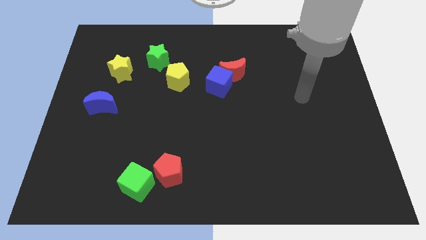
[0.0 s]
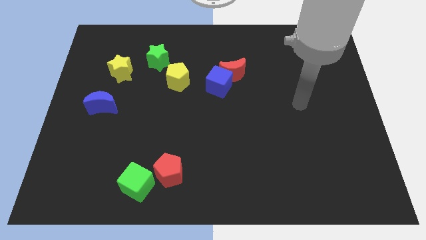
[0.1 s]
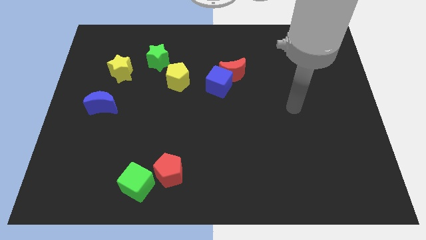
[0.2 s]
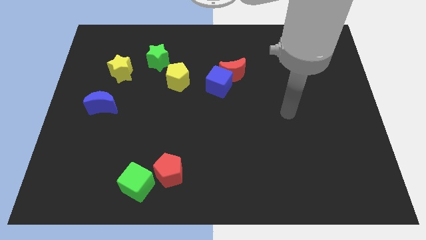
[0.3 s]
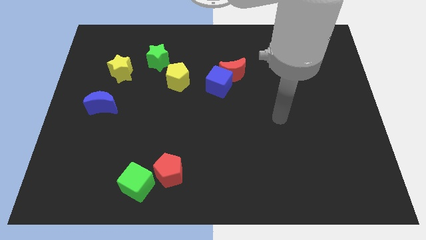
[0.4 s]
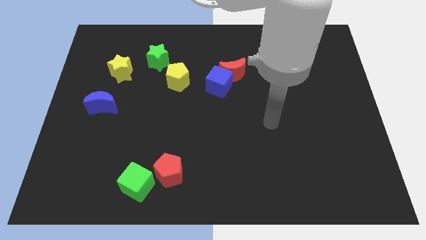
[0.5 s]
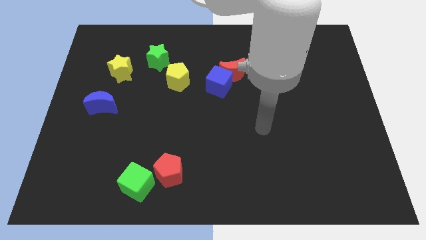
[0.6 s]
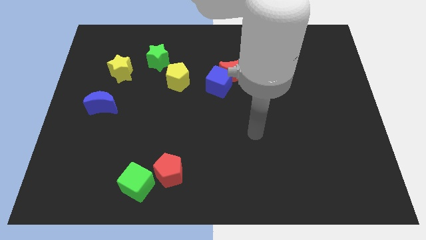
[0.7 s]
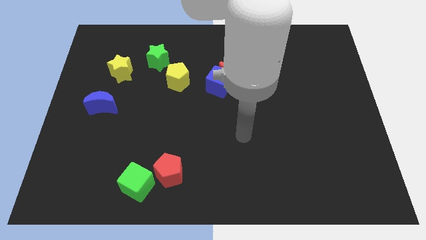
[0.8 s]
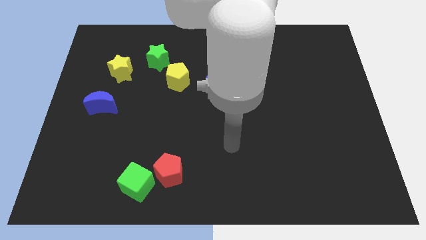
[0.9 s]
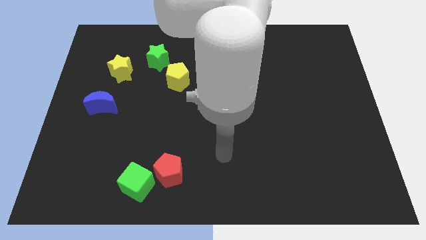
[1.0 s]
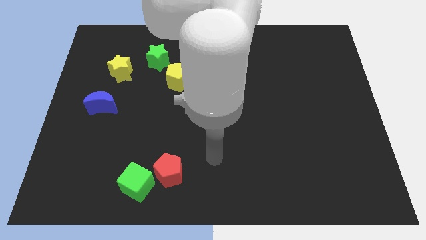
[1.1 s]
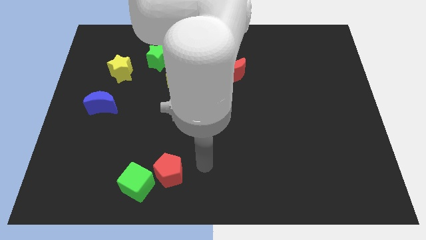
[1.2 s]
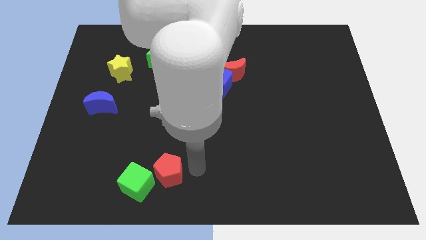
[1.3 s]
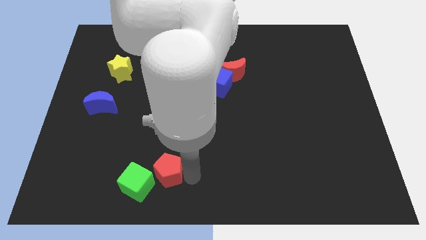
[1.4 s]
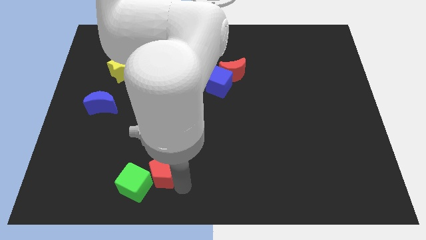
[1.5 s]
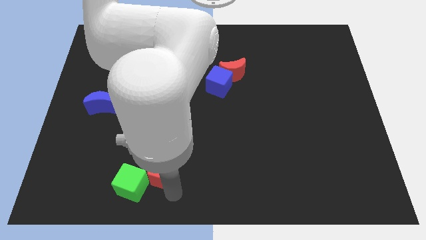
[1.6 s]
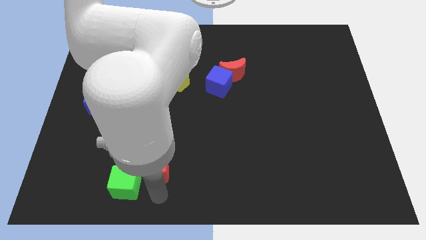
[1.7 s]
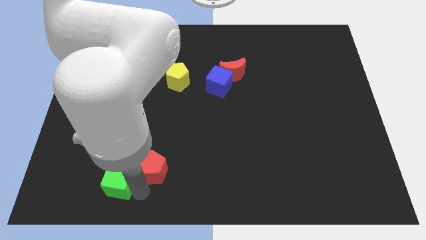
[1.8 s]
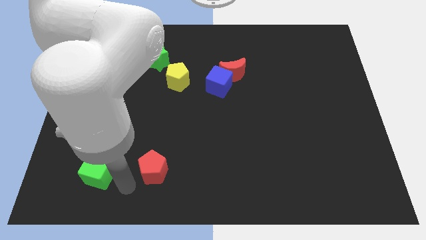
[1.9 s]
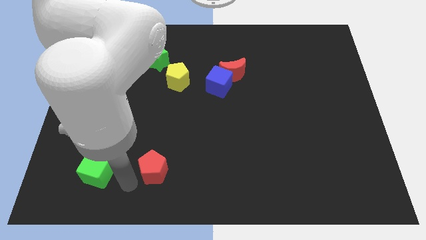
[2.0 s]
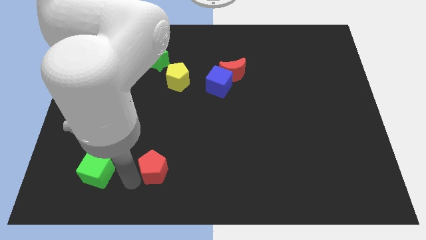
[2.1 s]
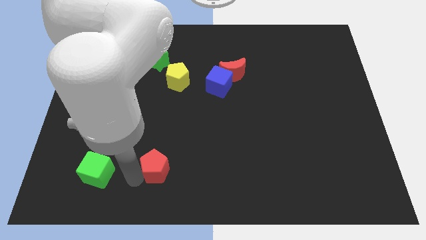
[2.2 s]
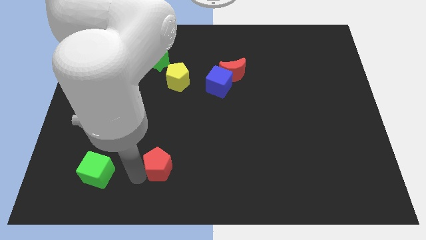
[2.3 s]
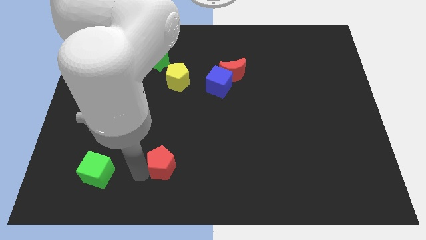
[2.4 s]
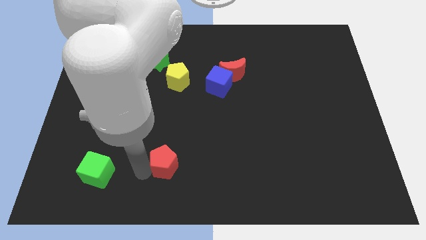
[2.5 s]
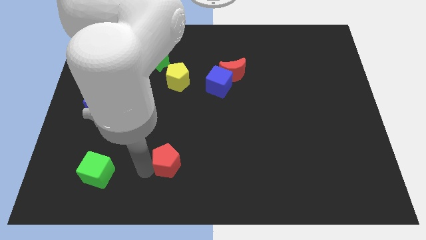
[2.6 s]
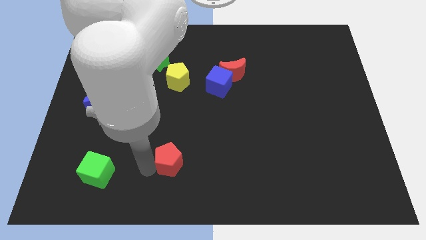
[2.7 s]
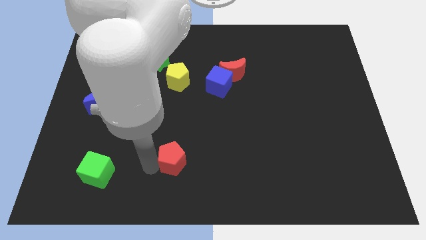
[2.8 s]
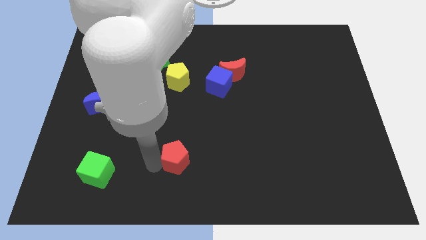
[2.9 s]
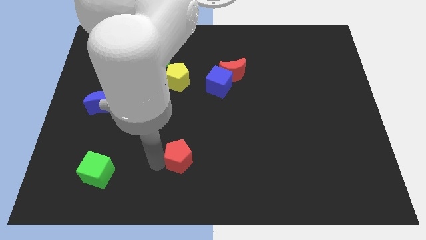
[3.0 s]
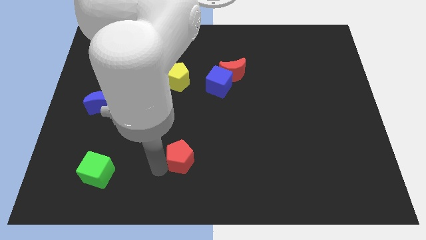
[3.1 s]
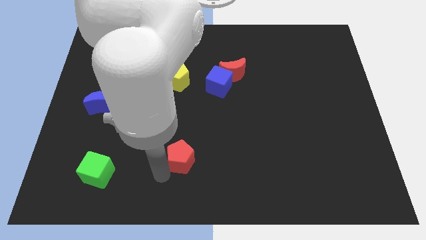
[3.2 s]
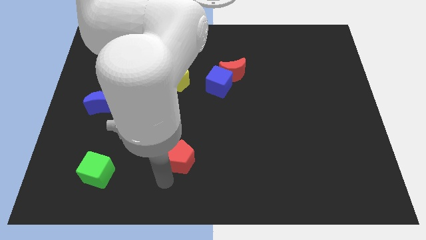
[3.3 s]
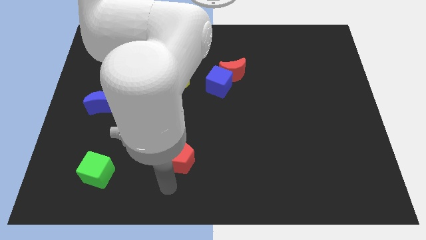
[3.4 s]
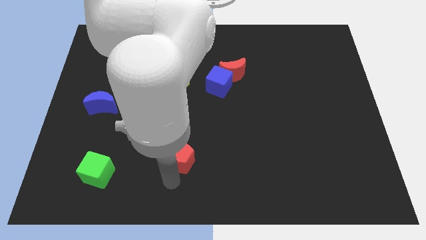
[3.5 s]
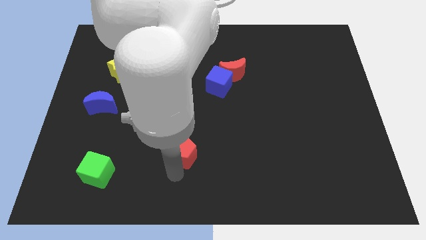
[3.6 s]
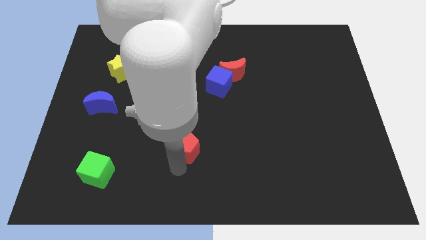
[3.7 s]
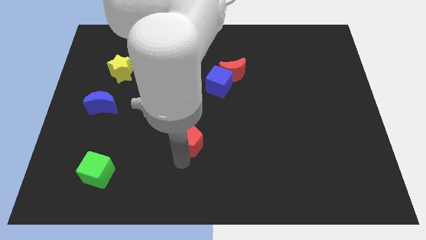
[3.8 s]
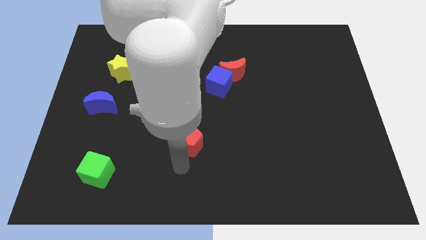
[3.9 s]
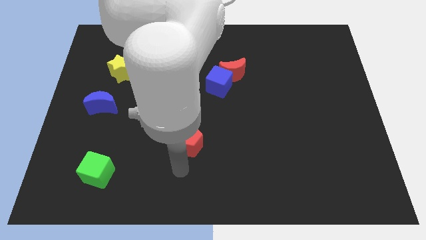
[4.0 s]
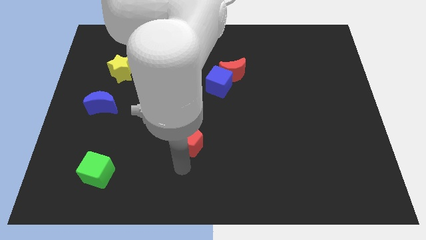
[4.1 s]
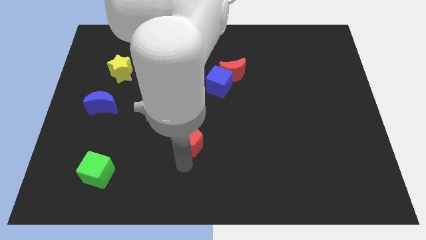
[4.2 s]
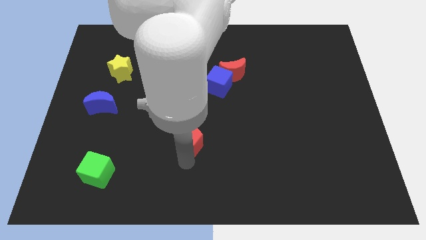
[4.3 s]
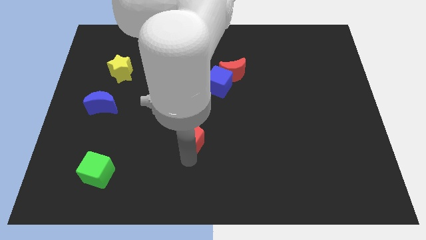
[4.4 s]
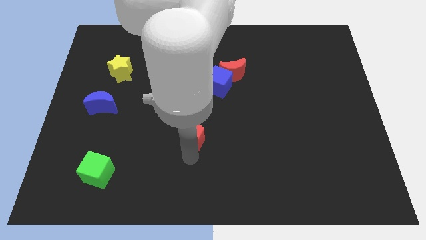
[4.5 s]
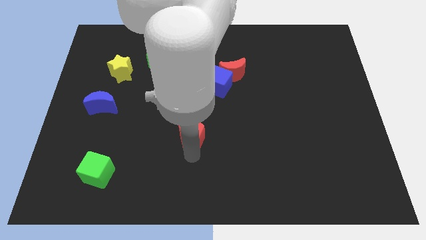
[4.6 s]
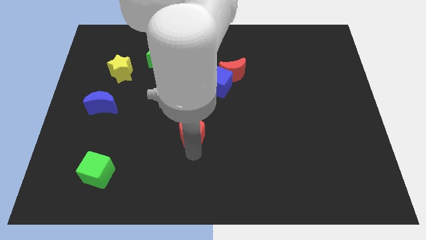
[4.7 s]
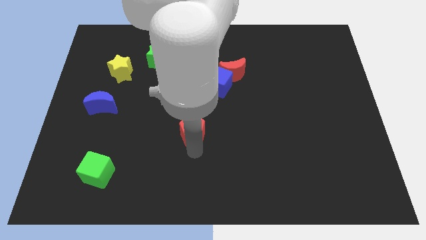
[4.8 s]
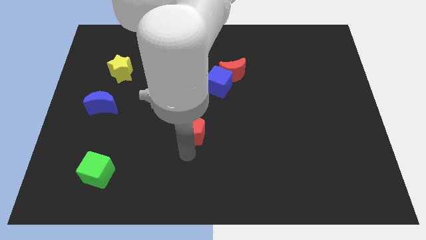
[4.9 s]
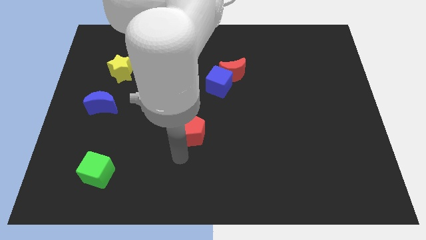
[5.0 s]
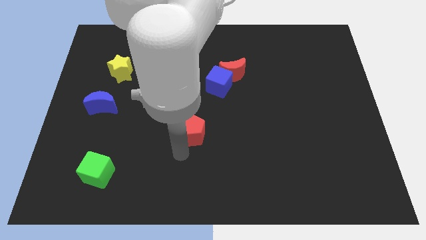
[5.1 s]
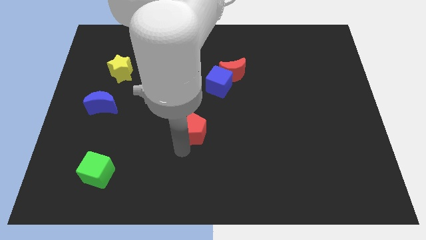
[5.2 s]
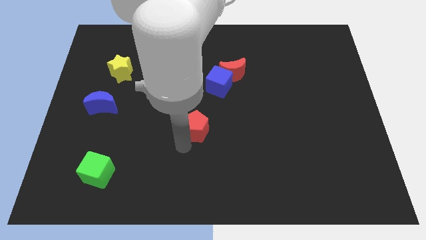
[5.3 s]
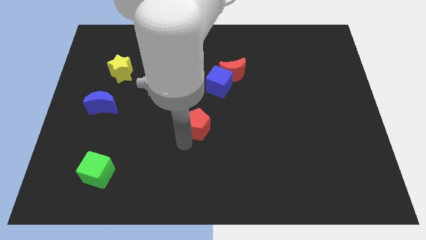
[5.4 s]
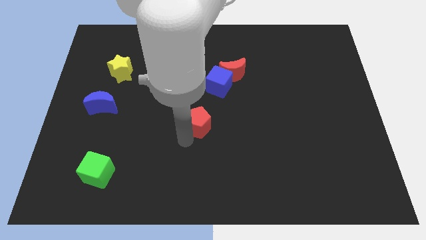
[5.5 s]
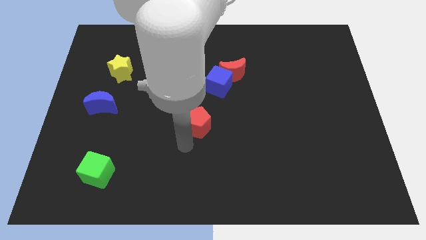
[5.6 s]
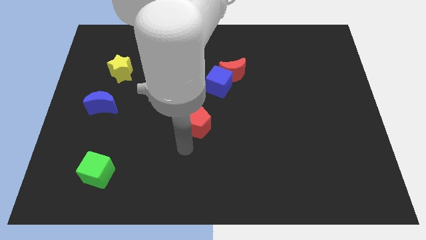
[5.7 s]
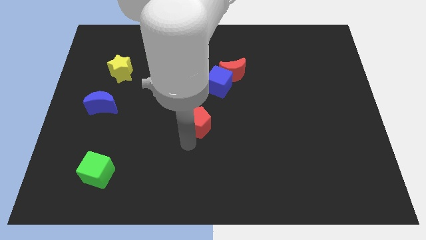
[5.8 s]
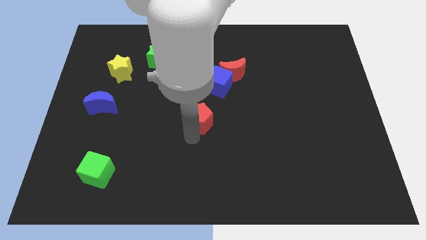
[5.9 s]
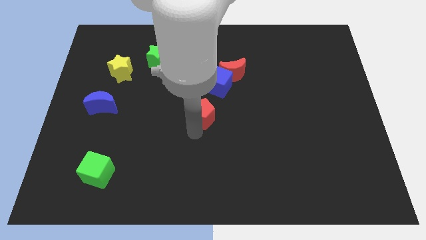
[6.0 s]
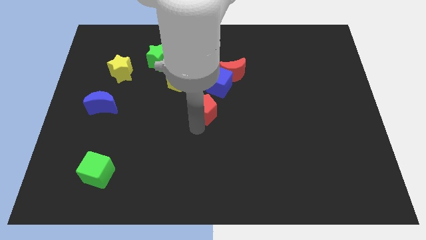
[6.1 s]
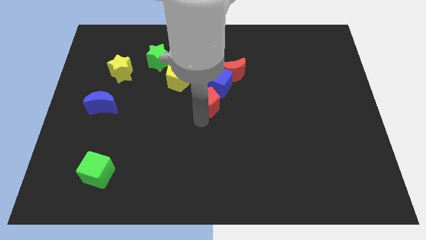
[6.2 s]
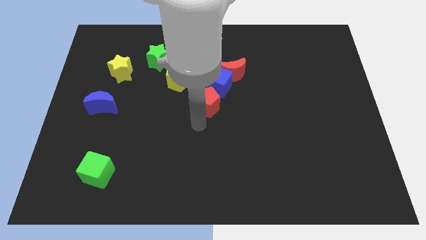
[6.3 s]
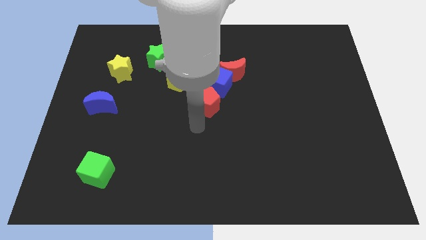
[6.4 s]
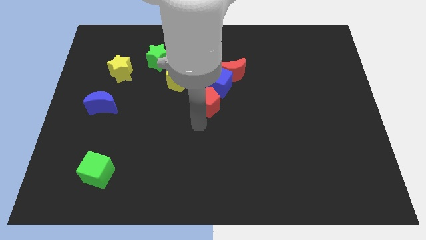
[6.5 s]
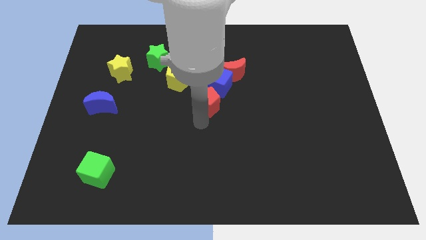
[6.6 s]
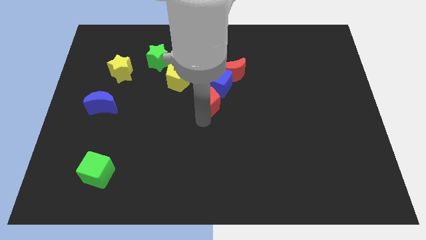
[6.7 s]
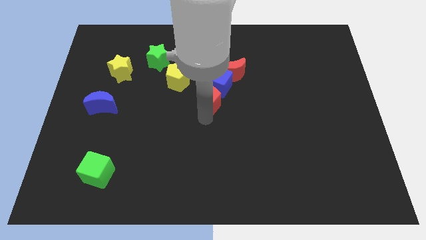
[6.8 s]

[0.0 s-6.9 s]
slide the red pentagon towards the blue cube

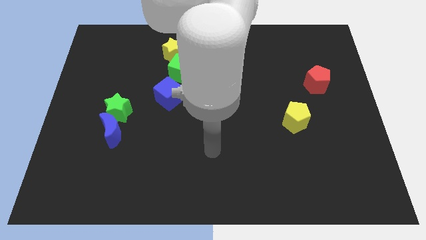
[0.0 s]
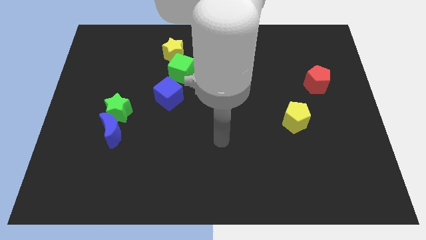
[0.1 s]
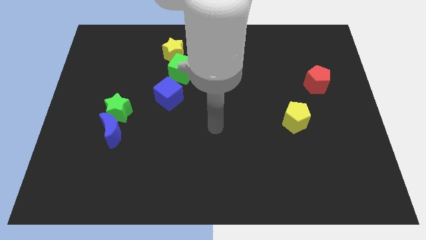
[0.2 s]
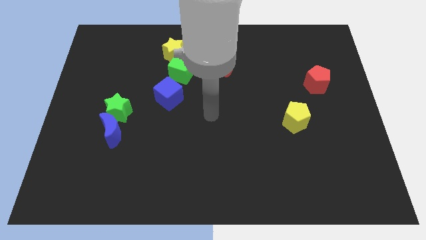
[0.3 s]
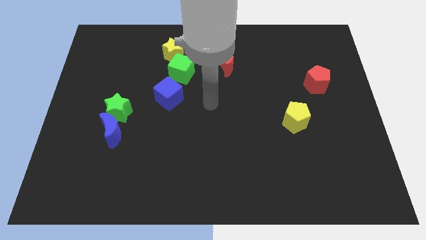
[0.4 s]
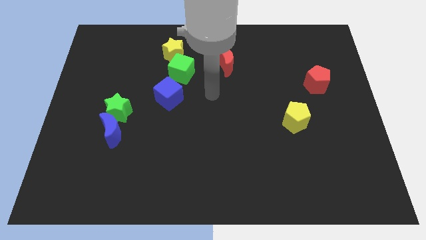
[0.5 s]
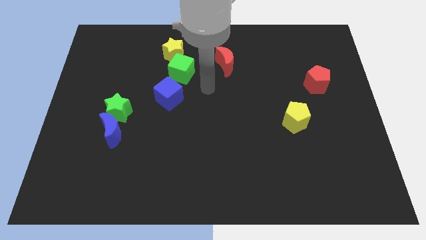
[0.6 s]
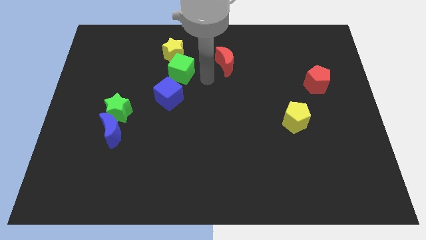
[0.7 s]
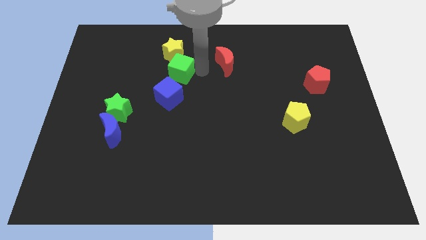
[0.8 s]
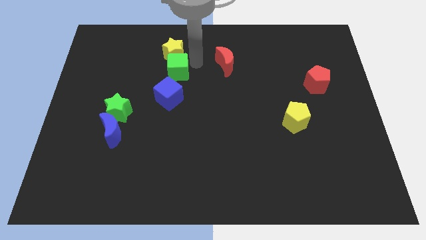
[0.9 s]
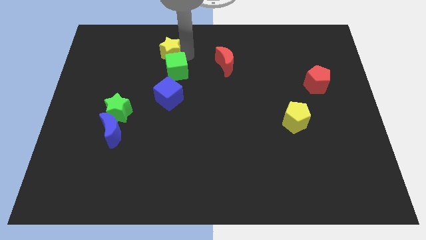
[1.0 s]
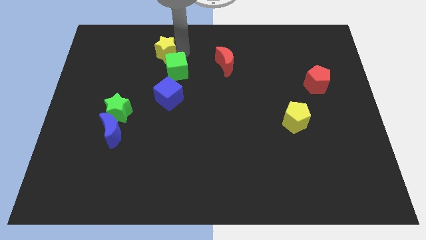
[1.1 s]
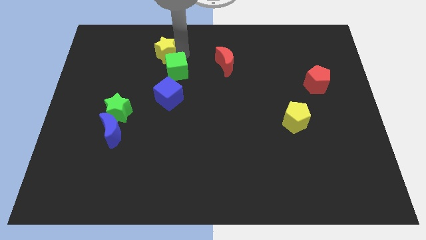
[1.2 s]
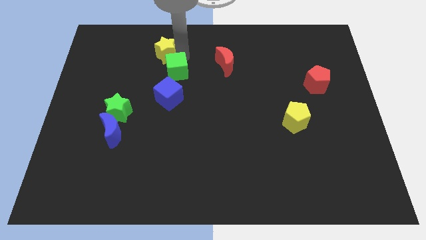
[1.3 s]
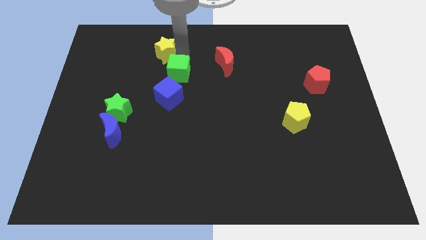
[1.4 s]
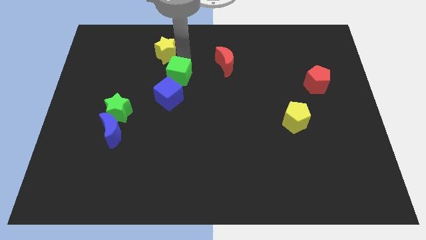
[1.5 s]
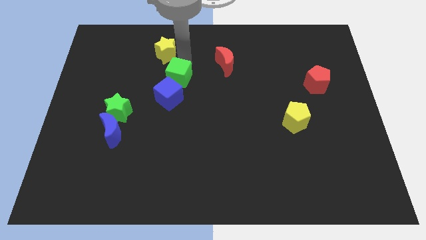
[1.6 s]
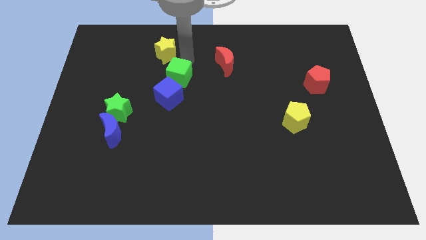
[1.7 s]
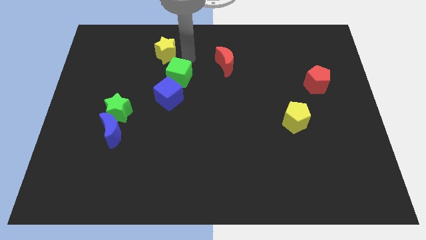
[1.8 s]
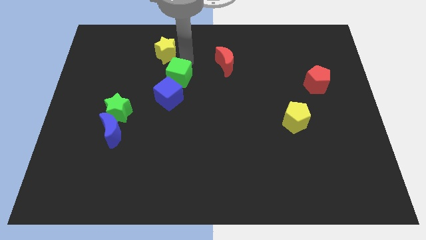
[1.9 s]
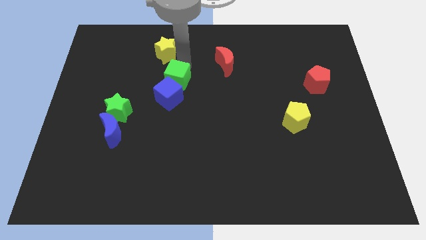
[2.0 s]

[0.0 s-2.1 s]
move the green cube close to the blue cube
